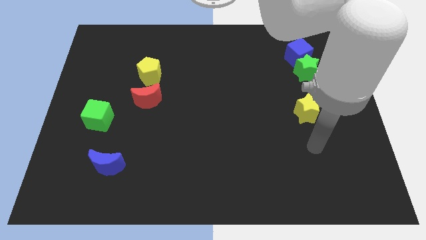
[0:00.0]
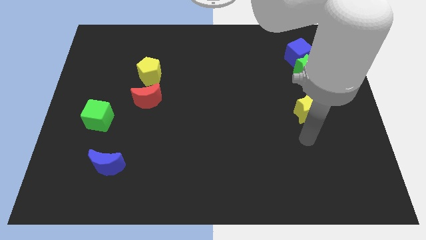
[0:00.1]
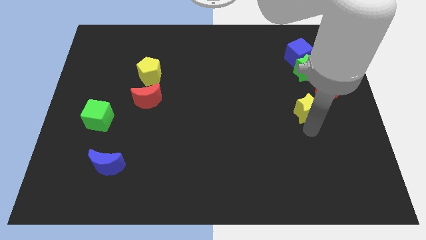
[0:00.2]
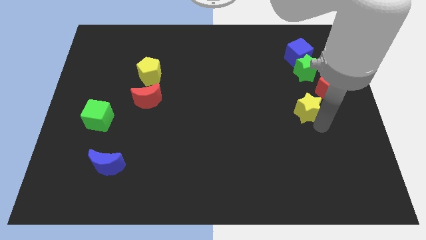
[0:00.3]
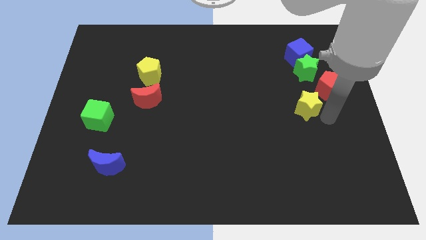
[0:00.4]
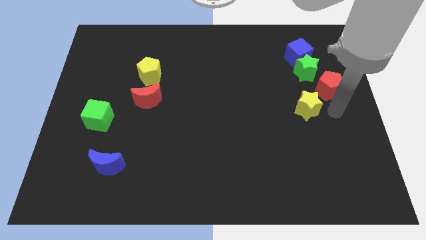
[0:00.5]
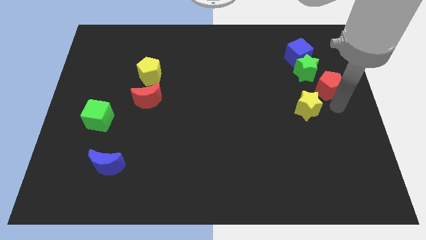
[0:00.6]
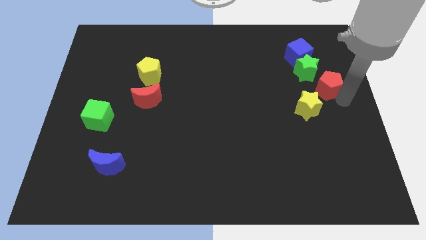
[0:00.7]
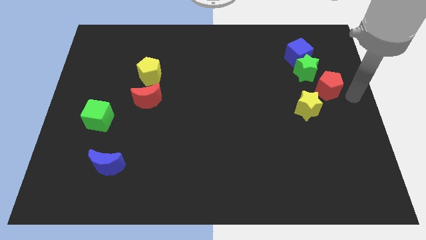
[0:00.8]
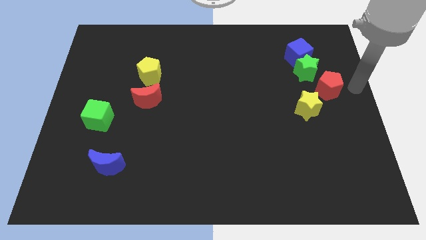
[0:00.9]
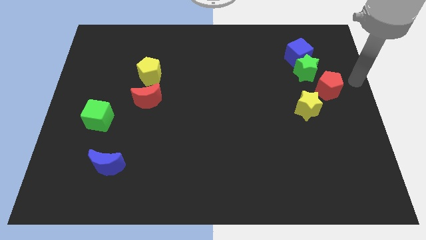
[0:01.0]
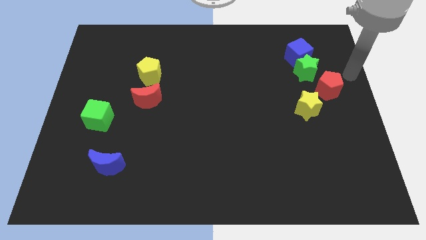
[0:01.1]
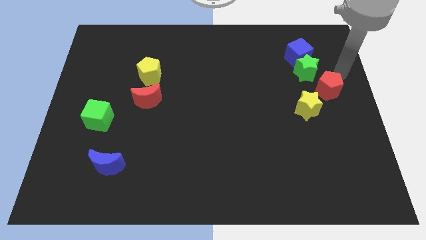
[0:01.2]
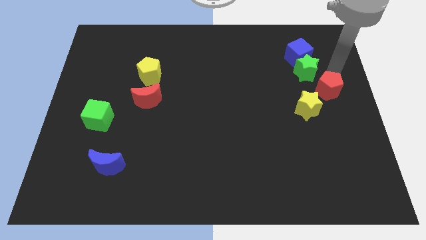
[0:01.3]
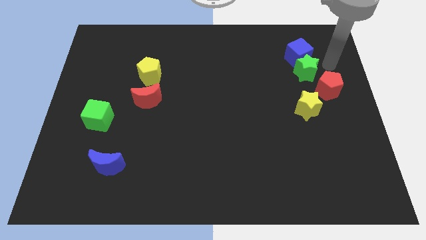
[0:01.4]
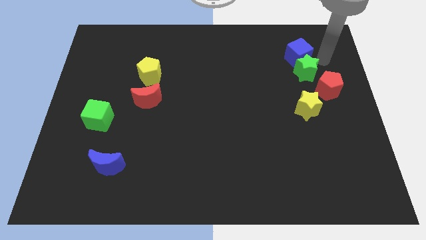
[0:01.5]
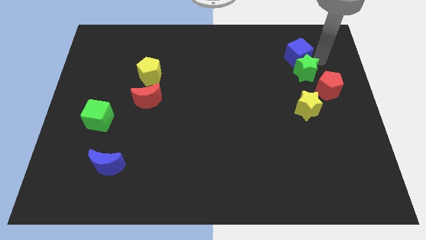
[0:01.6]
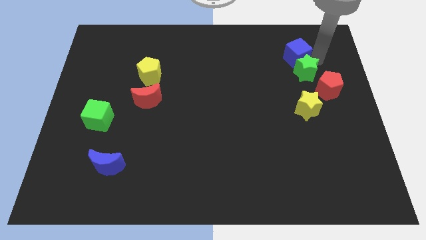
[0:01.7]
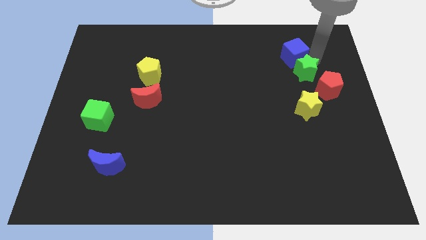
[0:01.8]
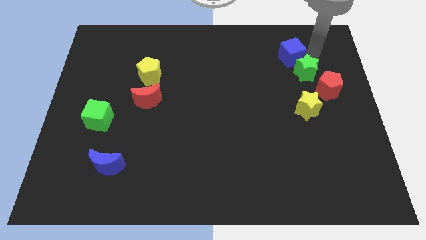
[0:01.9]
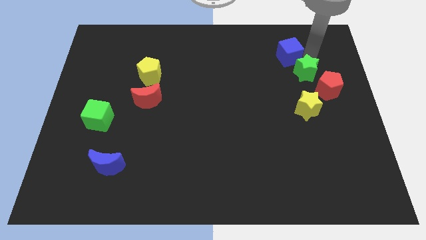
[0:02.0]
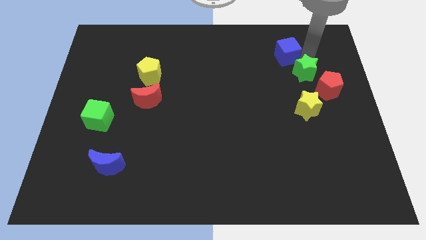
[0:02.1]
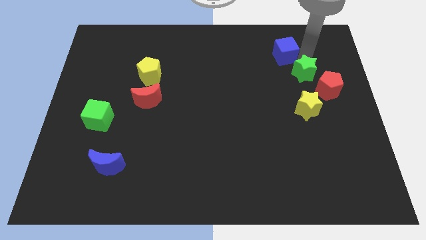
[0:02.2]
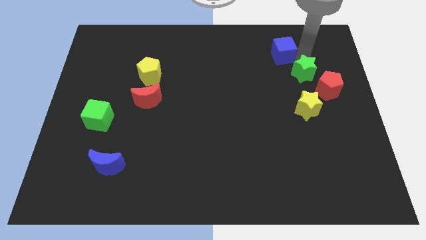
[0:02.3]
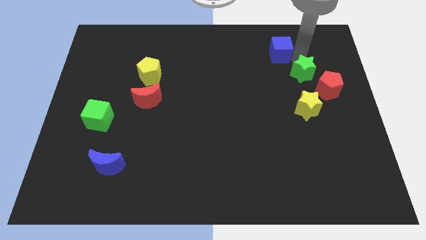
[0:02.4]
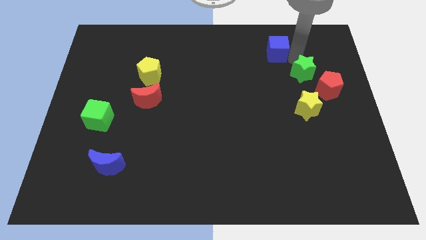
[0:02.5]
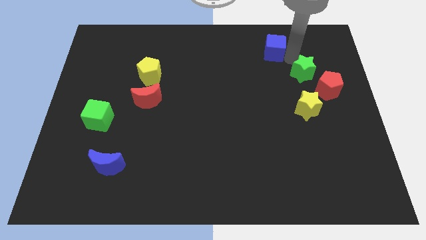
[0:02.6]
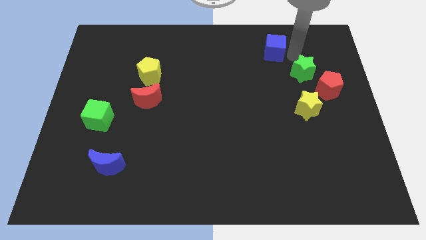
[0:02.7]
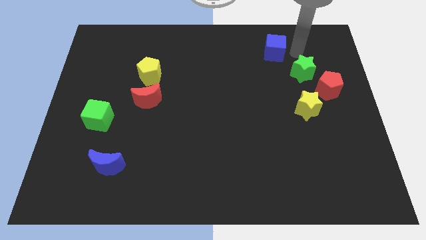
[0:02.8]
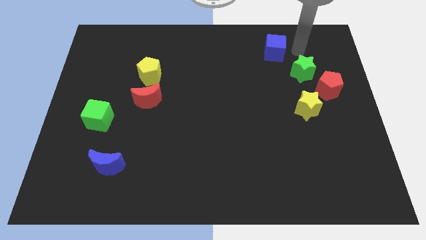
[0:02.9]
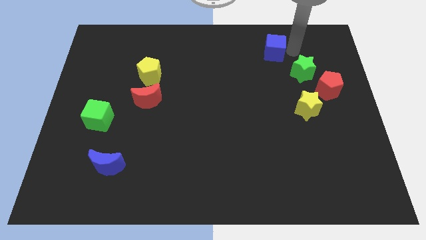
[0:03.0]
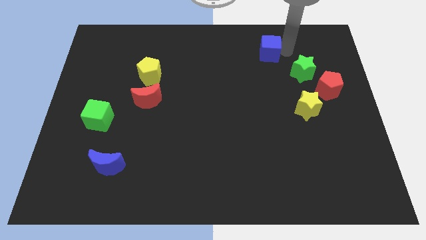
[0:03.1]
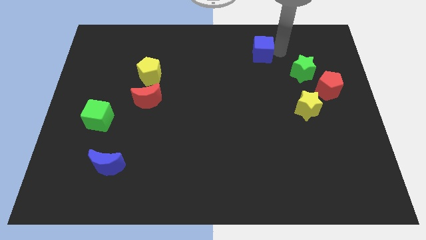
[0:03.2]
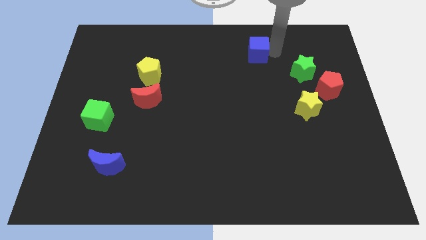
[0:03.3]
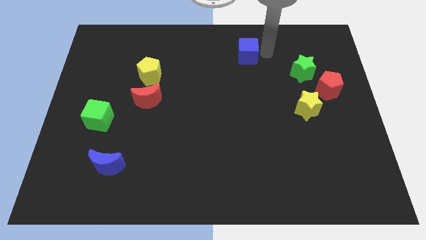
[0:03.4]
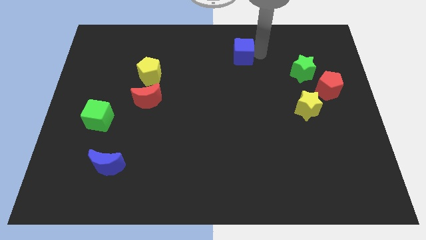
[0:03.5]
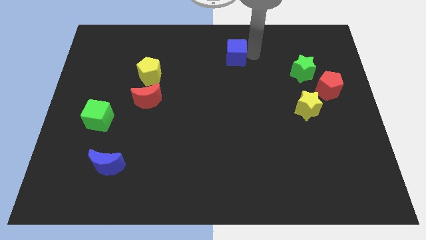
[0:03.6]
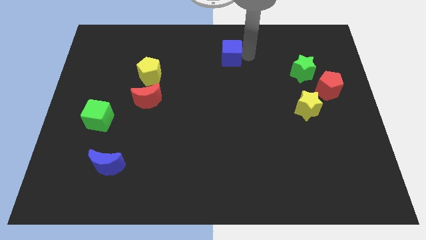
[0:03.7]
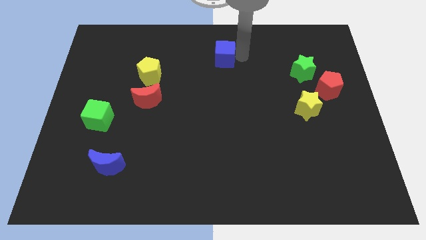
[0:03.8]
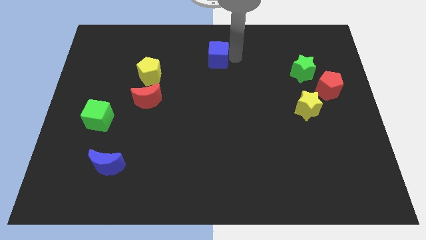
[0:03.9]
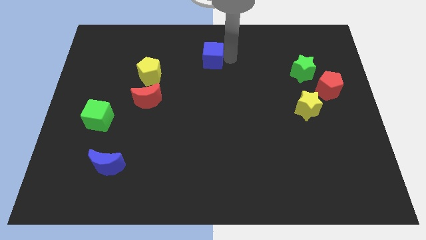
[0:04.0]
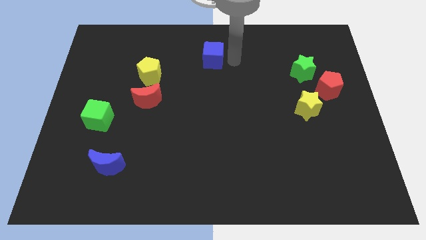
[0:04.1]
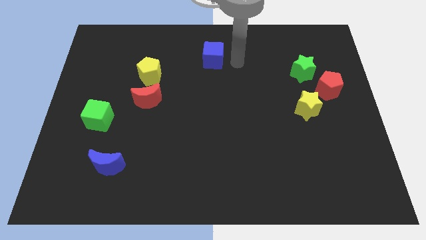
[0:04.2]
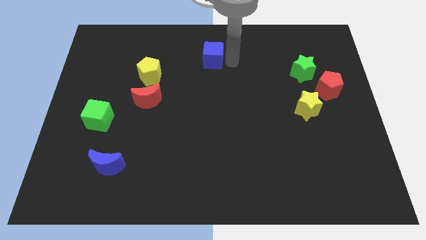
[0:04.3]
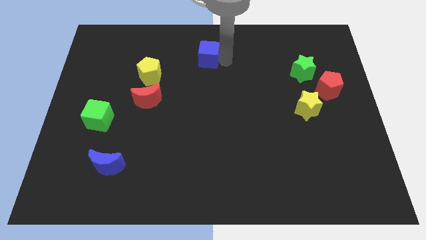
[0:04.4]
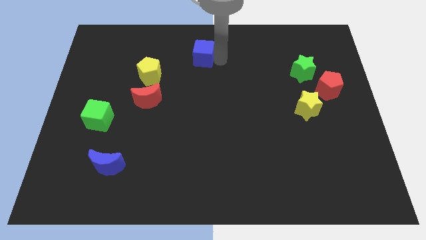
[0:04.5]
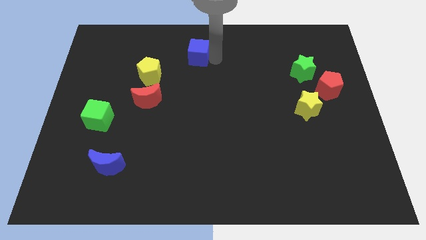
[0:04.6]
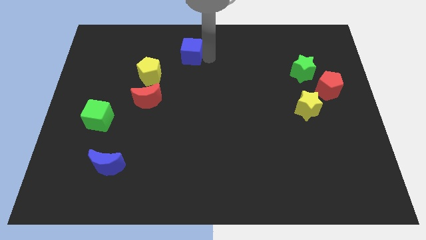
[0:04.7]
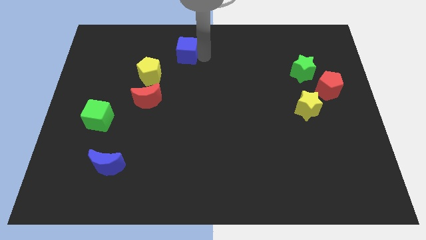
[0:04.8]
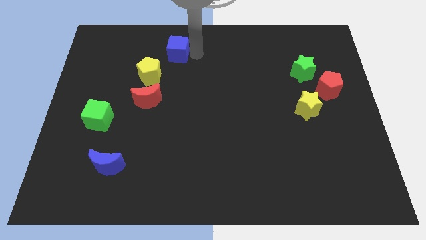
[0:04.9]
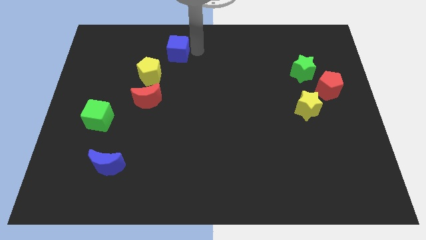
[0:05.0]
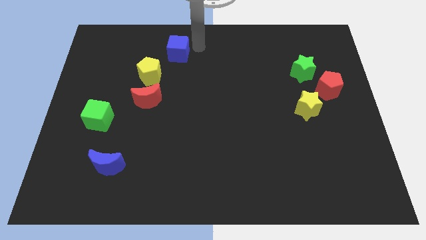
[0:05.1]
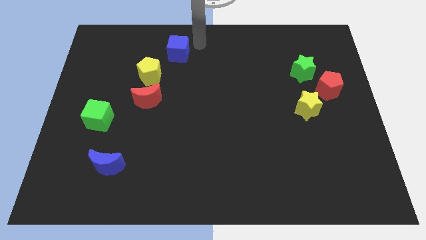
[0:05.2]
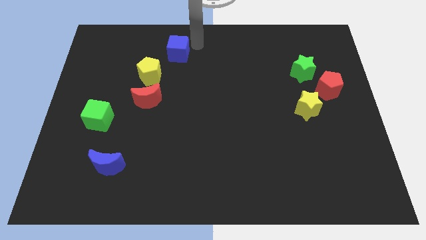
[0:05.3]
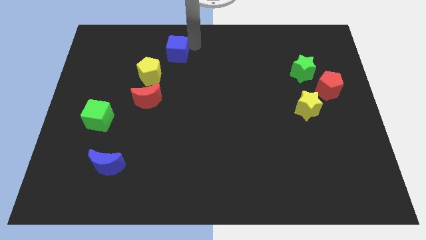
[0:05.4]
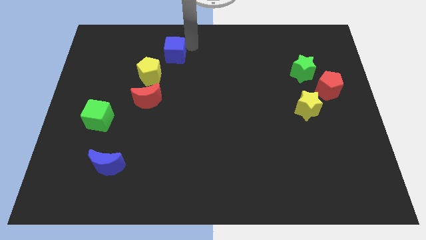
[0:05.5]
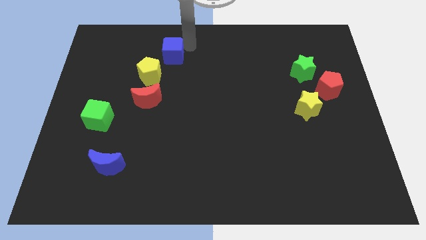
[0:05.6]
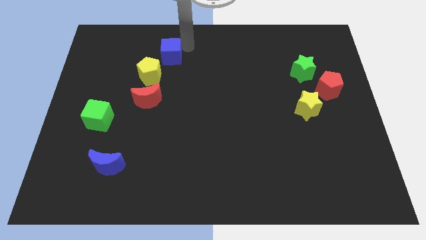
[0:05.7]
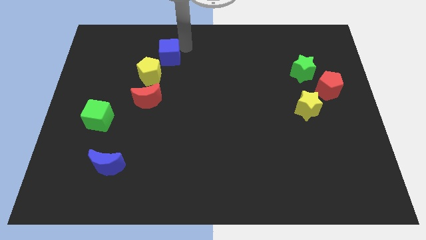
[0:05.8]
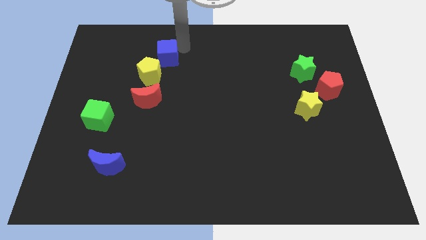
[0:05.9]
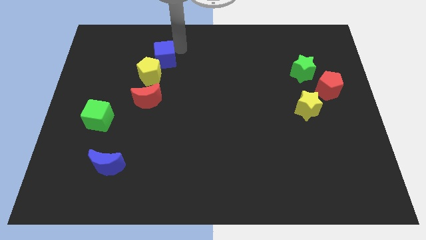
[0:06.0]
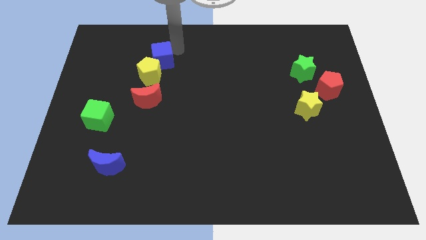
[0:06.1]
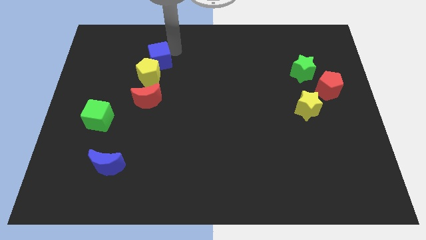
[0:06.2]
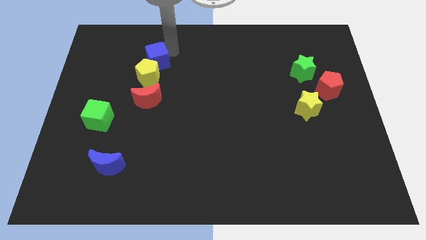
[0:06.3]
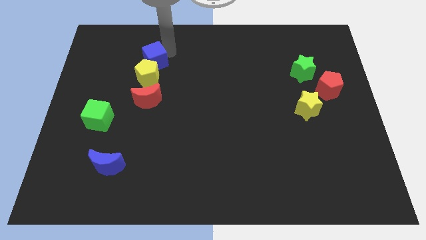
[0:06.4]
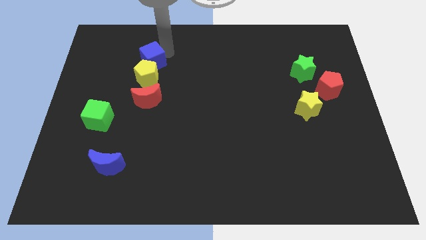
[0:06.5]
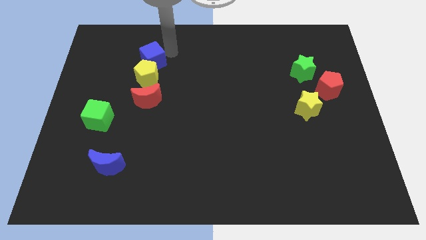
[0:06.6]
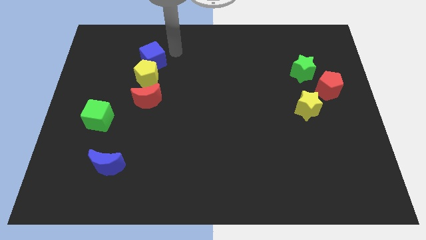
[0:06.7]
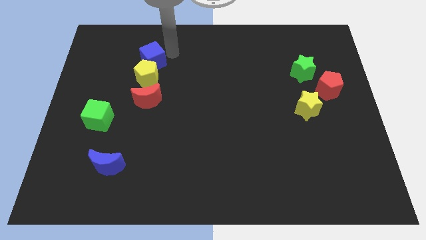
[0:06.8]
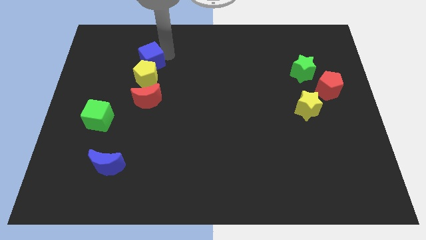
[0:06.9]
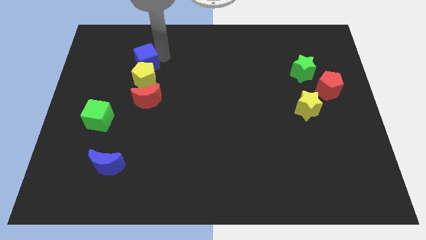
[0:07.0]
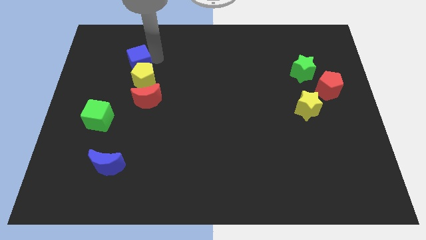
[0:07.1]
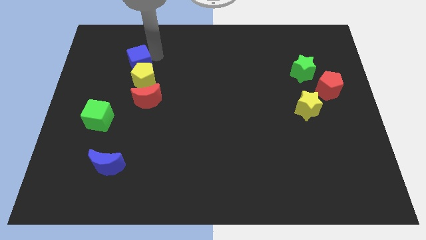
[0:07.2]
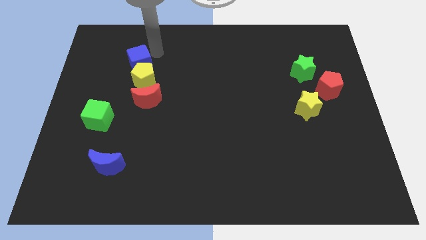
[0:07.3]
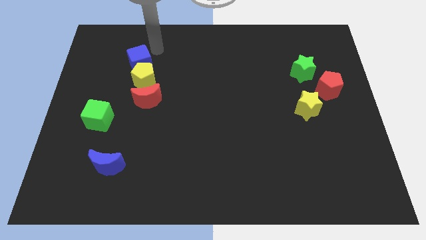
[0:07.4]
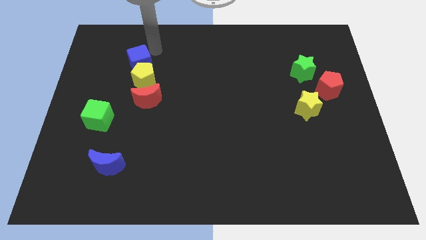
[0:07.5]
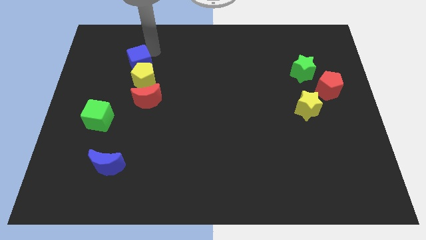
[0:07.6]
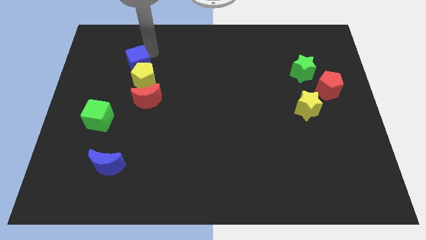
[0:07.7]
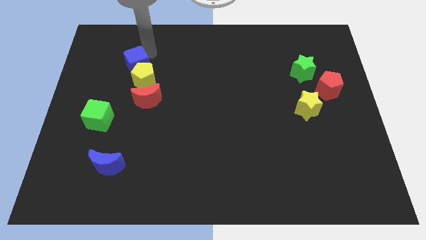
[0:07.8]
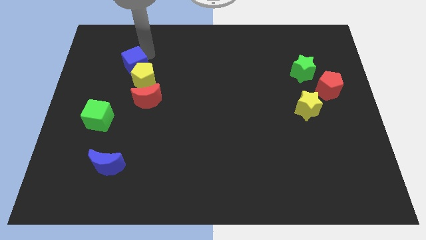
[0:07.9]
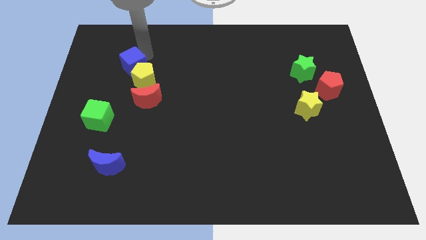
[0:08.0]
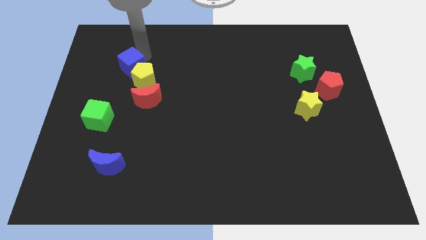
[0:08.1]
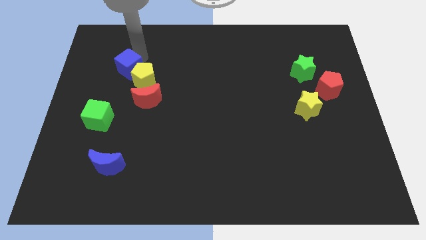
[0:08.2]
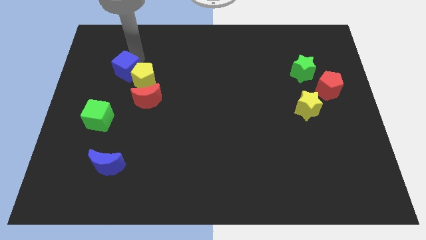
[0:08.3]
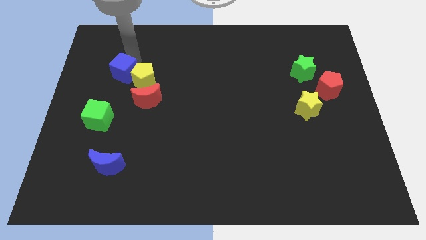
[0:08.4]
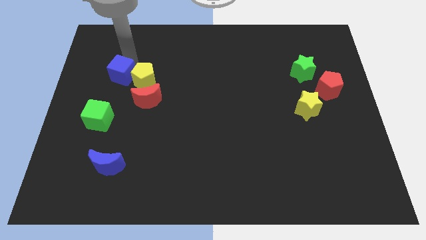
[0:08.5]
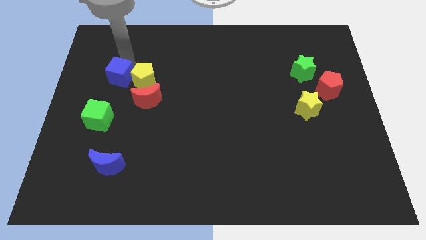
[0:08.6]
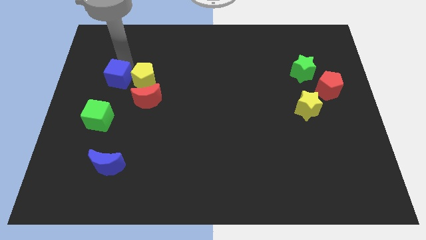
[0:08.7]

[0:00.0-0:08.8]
slide the blue cube to the bottom left of the yellow pentagon

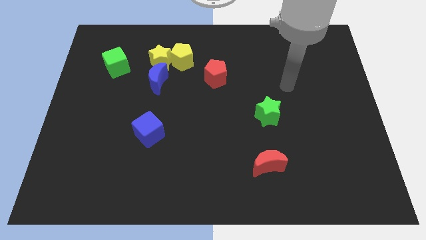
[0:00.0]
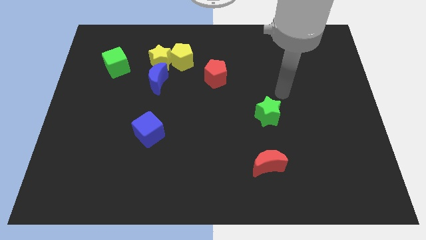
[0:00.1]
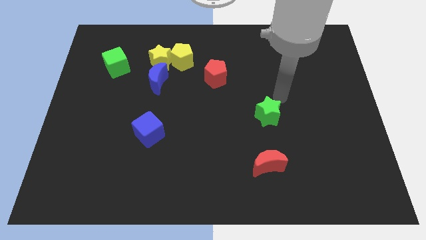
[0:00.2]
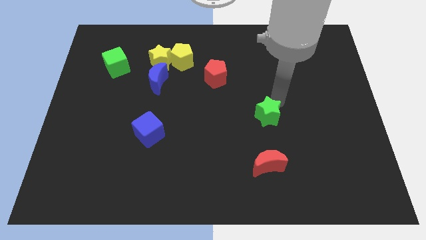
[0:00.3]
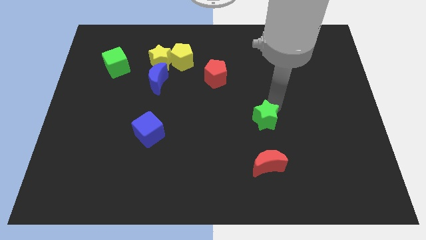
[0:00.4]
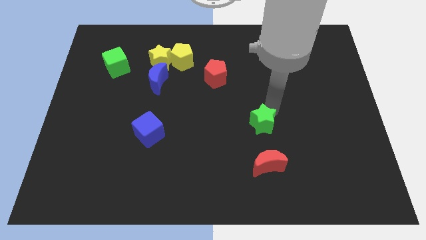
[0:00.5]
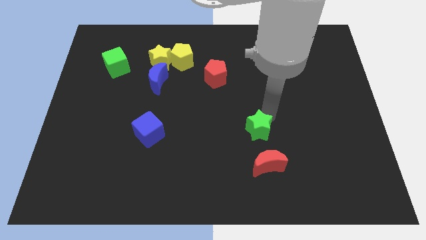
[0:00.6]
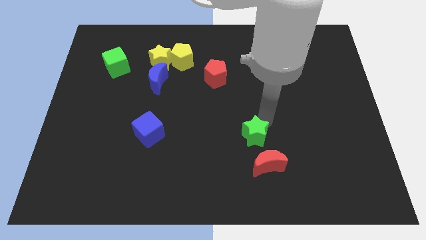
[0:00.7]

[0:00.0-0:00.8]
move the green star diagonally up and to the left of the red moon
